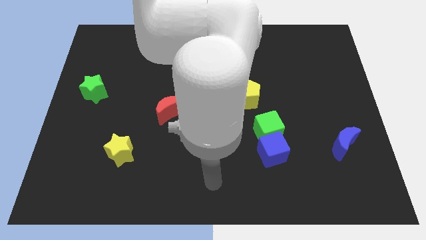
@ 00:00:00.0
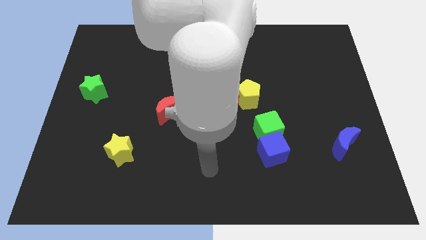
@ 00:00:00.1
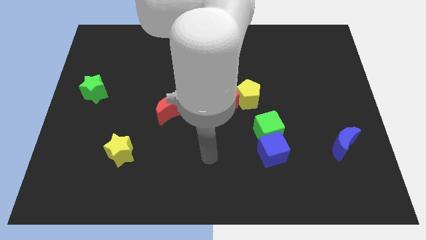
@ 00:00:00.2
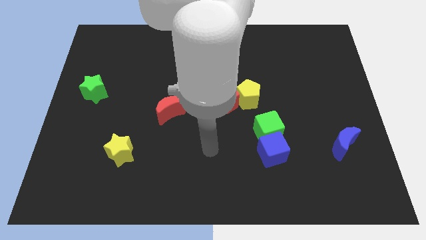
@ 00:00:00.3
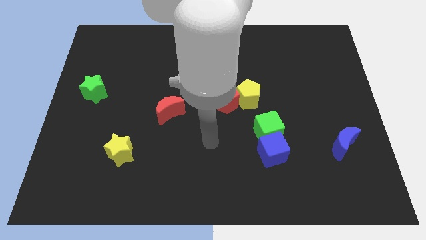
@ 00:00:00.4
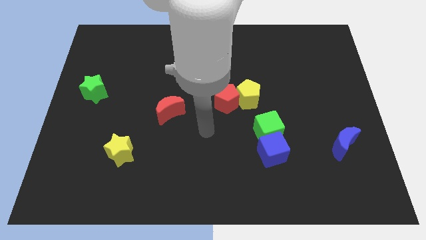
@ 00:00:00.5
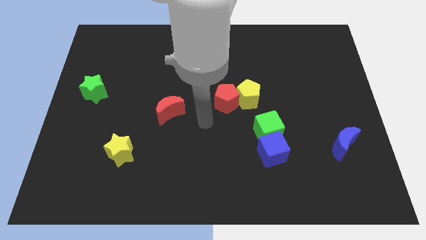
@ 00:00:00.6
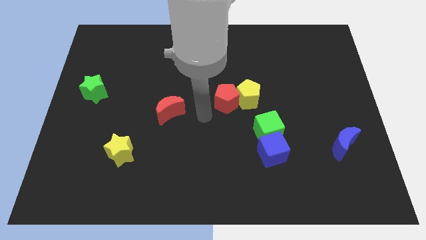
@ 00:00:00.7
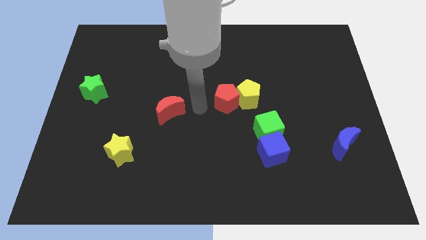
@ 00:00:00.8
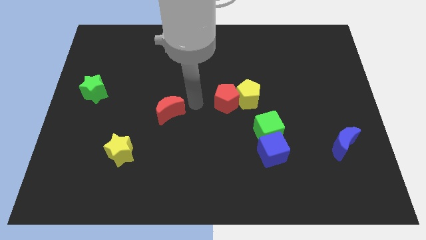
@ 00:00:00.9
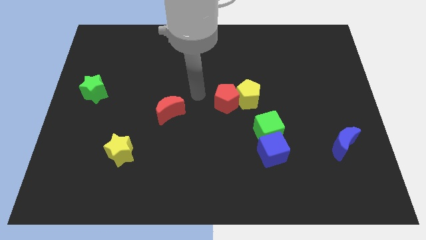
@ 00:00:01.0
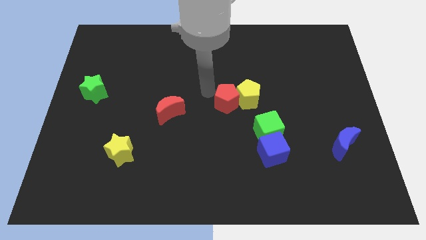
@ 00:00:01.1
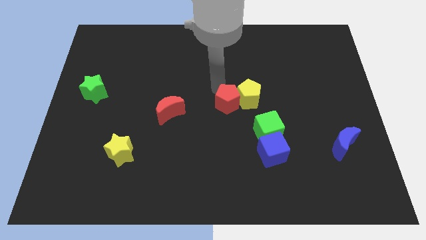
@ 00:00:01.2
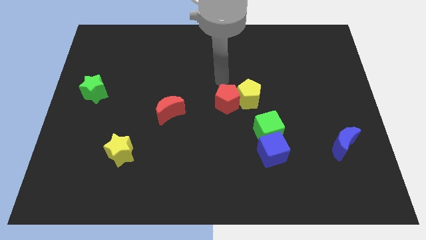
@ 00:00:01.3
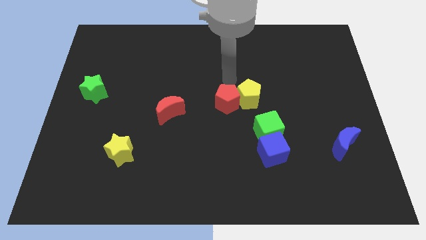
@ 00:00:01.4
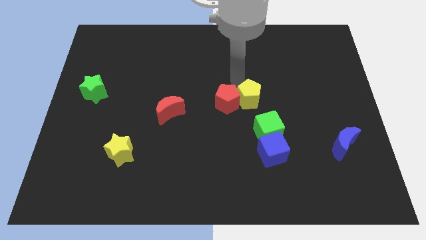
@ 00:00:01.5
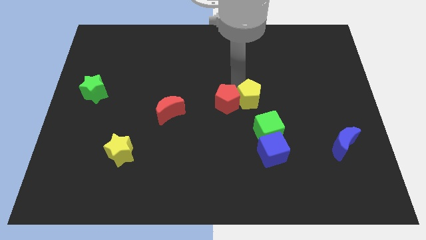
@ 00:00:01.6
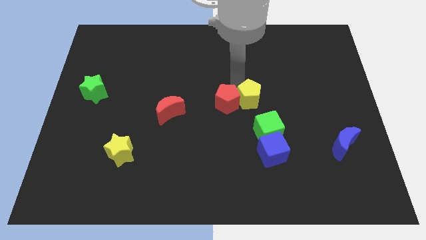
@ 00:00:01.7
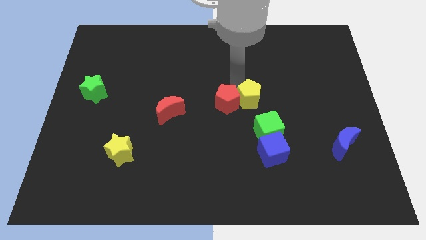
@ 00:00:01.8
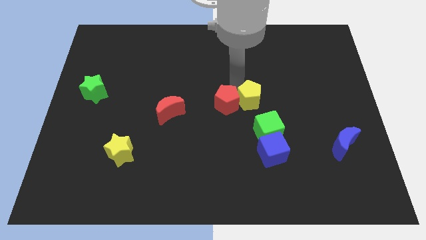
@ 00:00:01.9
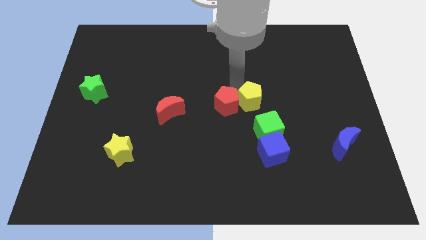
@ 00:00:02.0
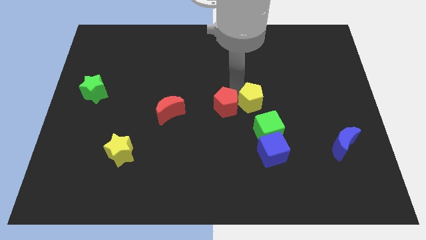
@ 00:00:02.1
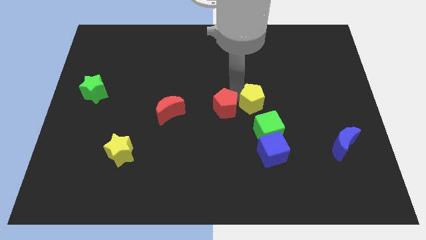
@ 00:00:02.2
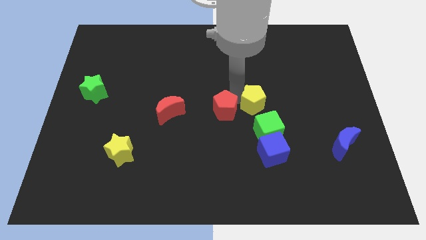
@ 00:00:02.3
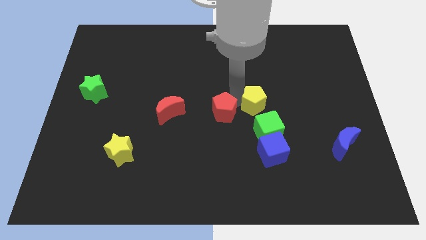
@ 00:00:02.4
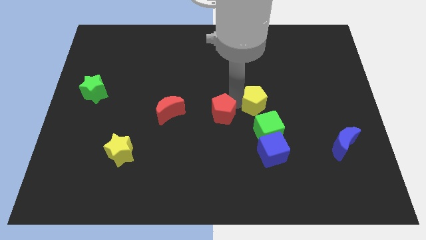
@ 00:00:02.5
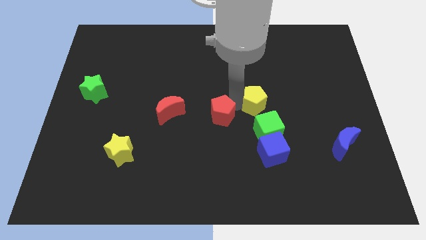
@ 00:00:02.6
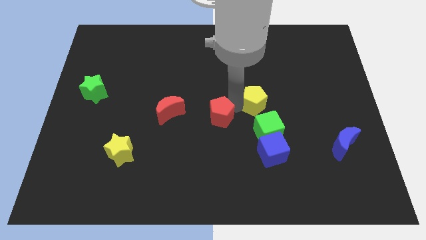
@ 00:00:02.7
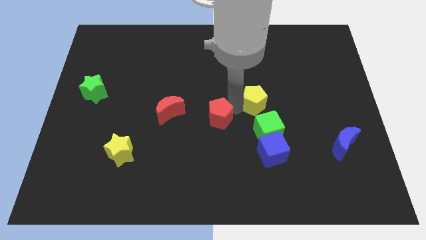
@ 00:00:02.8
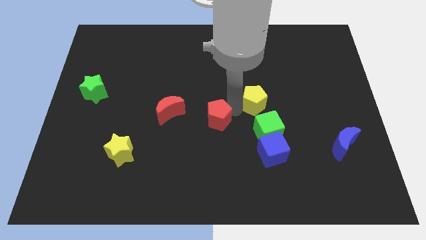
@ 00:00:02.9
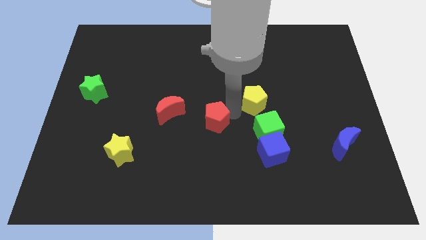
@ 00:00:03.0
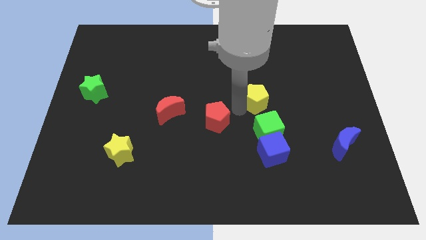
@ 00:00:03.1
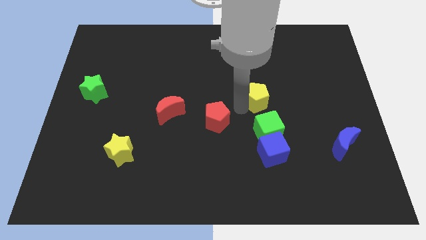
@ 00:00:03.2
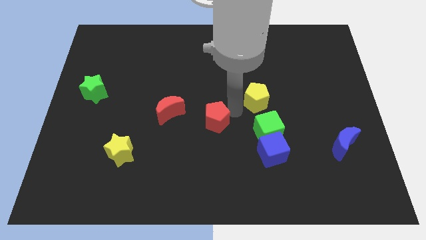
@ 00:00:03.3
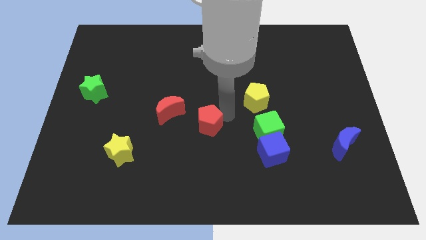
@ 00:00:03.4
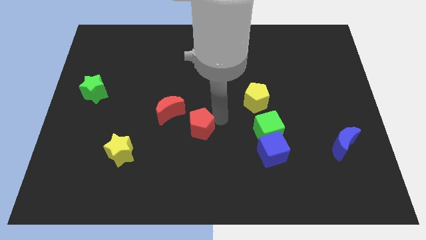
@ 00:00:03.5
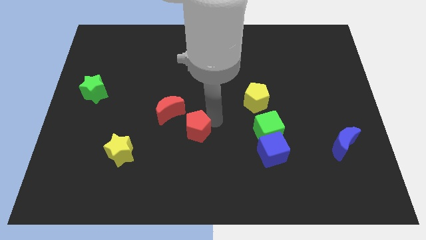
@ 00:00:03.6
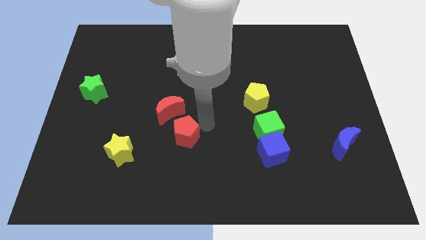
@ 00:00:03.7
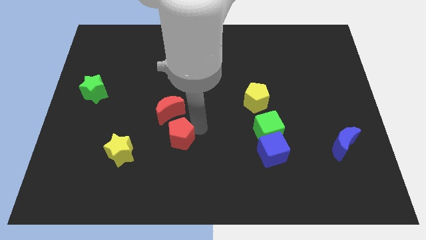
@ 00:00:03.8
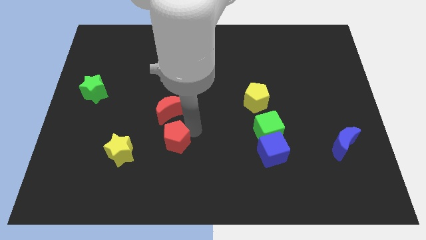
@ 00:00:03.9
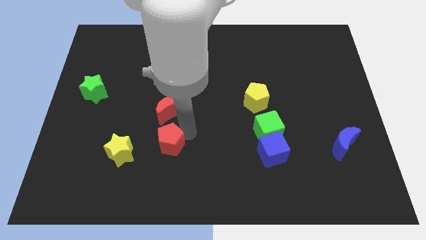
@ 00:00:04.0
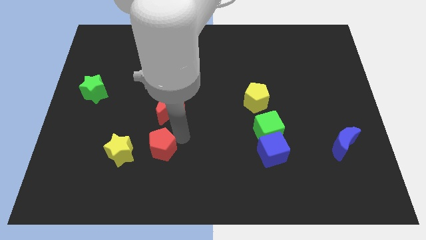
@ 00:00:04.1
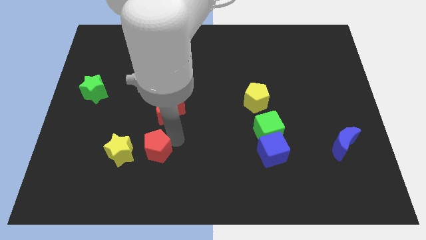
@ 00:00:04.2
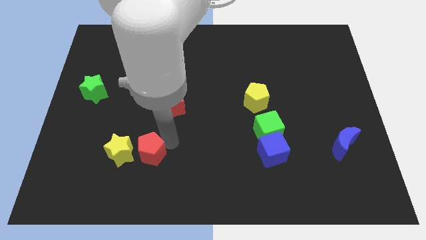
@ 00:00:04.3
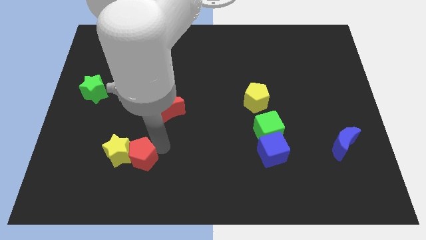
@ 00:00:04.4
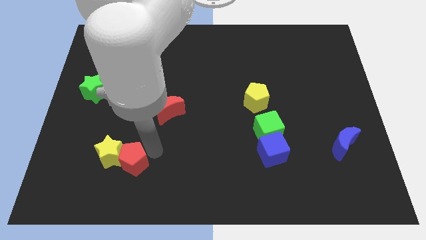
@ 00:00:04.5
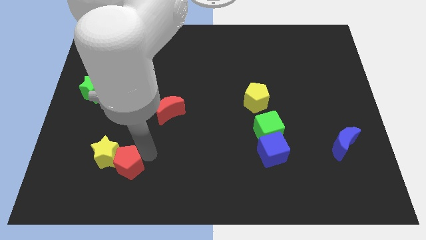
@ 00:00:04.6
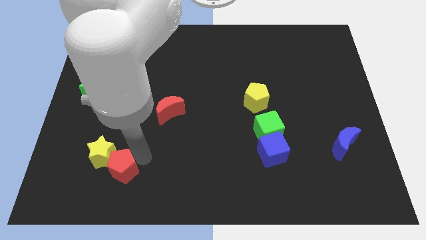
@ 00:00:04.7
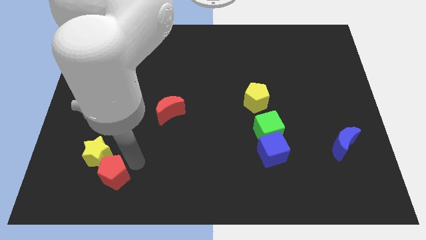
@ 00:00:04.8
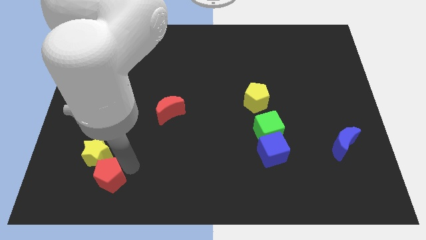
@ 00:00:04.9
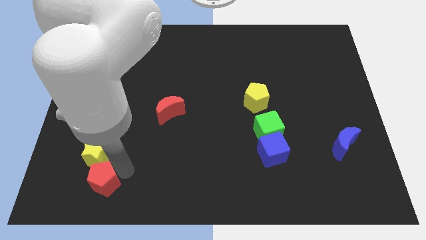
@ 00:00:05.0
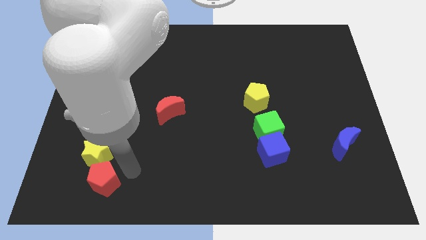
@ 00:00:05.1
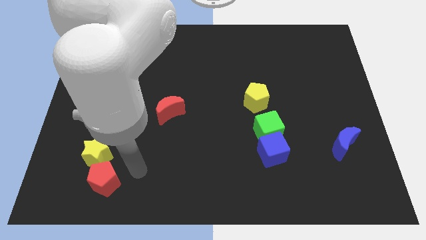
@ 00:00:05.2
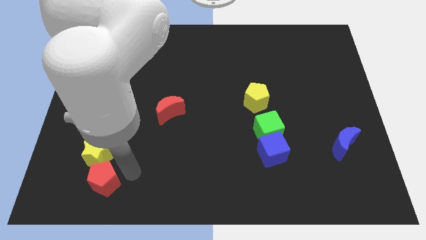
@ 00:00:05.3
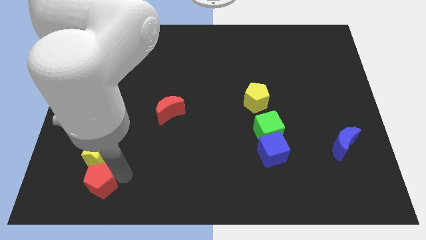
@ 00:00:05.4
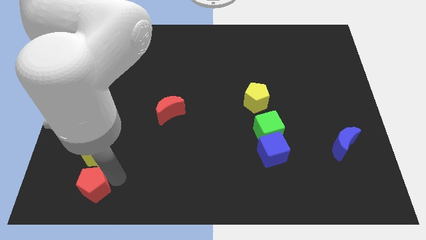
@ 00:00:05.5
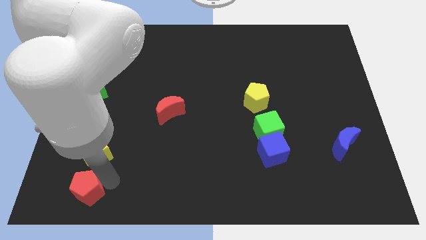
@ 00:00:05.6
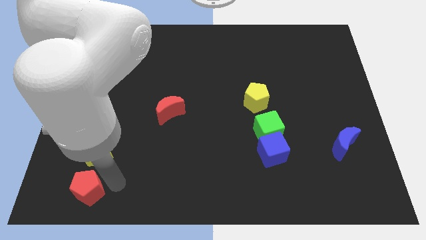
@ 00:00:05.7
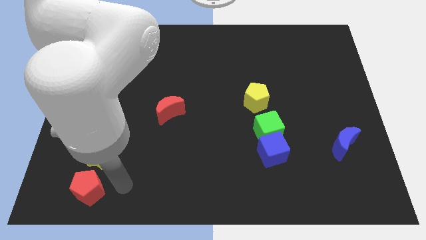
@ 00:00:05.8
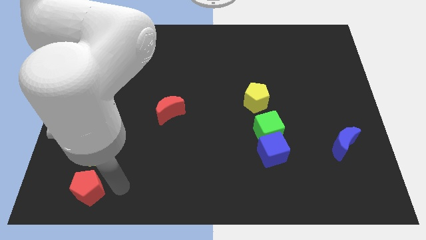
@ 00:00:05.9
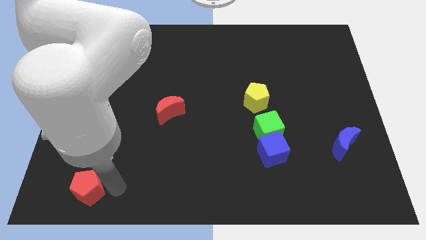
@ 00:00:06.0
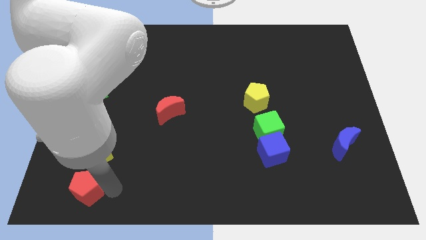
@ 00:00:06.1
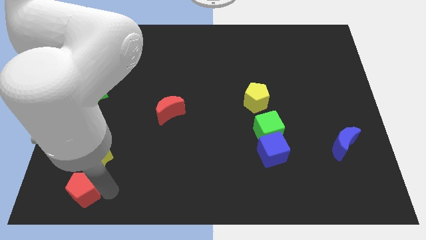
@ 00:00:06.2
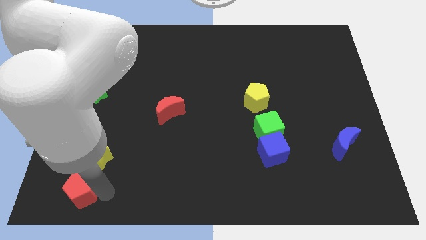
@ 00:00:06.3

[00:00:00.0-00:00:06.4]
put the red pentagon to the bottom left corner
